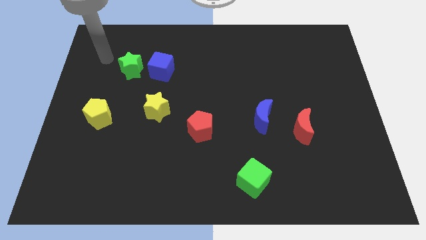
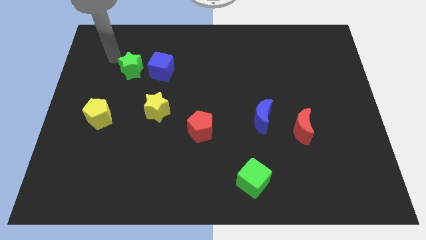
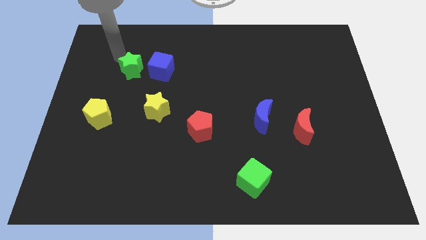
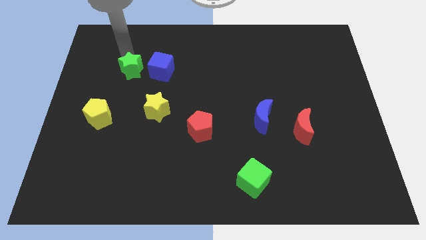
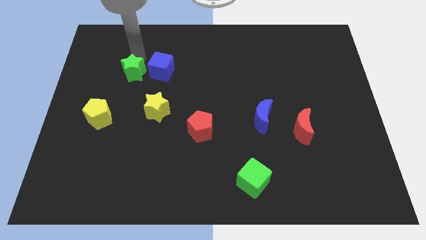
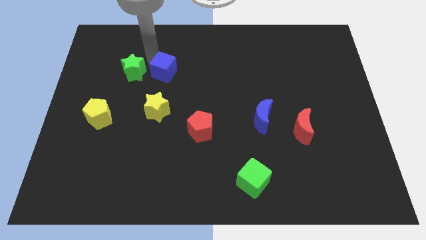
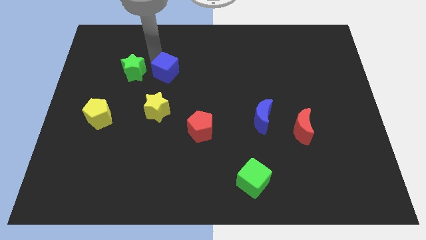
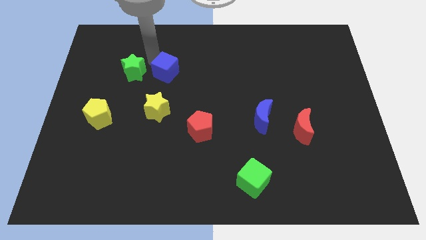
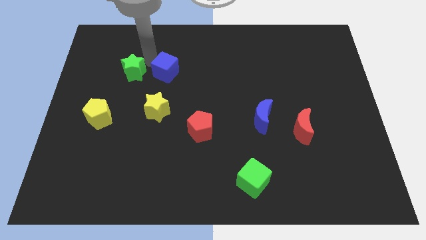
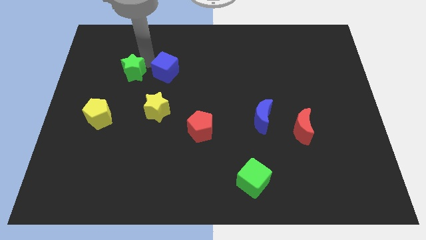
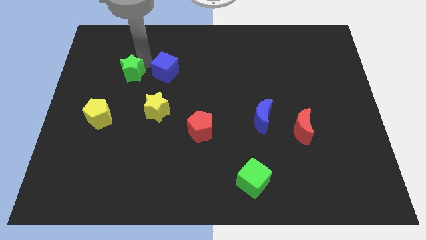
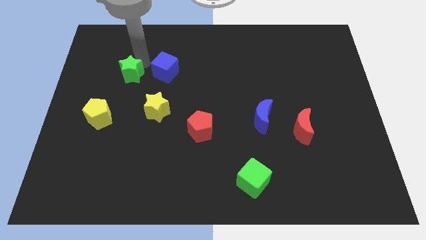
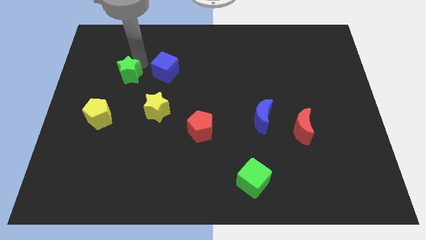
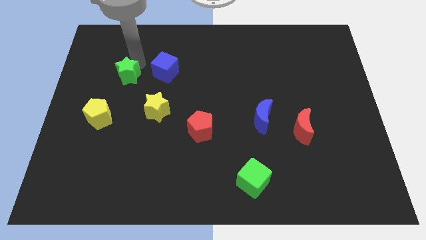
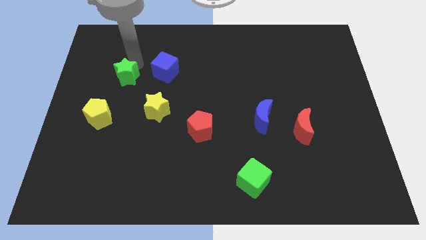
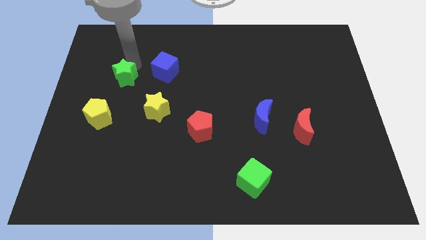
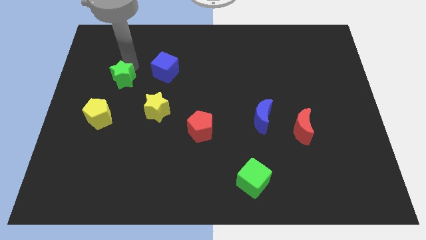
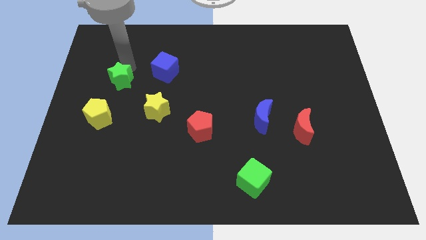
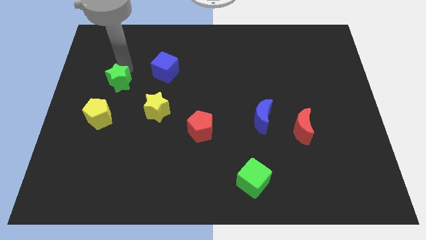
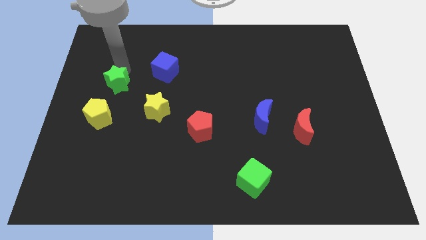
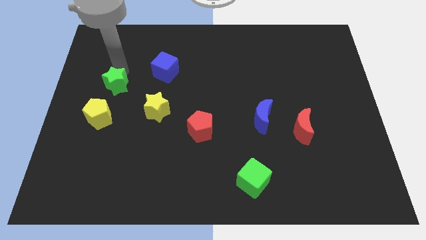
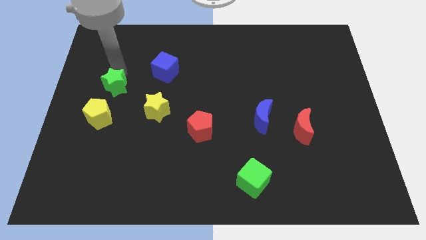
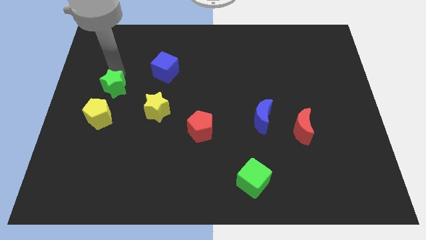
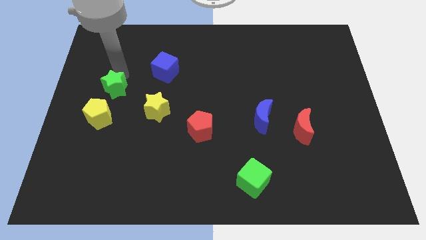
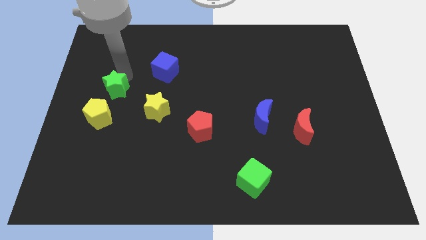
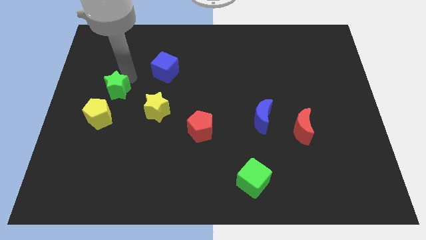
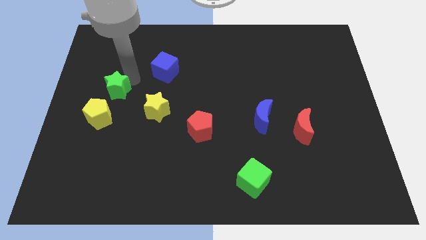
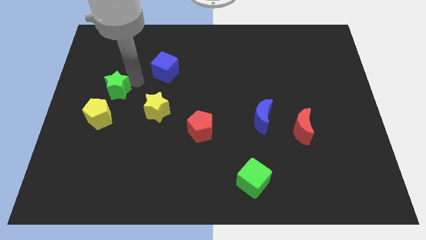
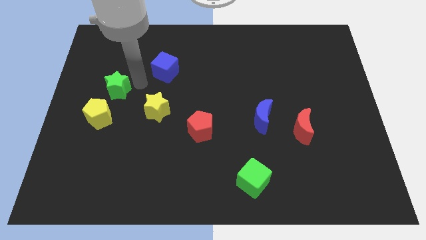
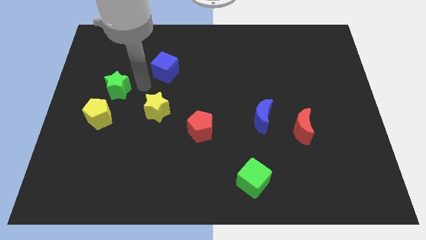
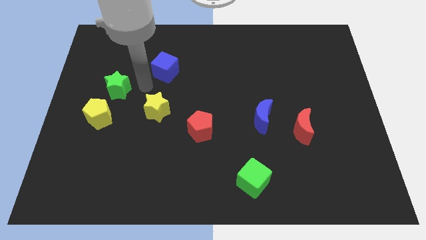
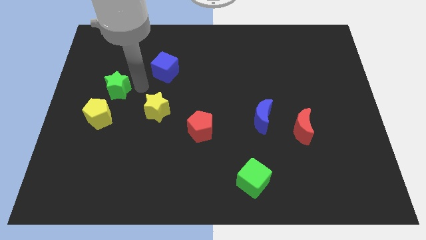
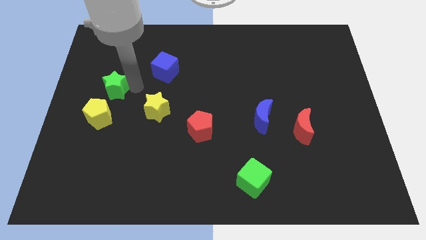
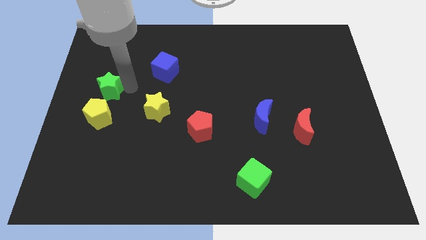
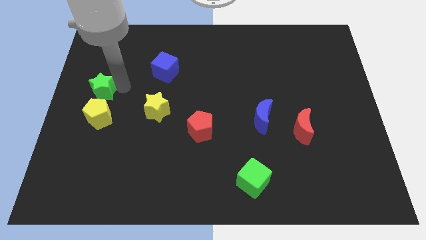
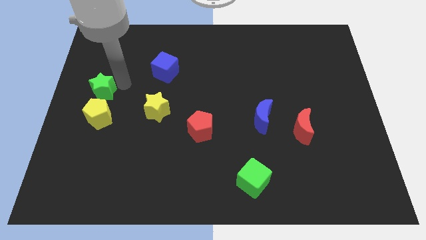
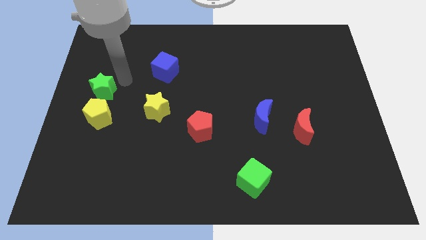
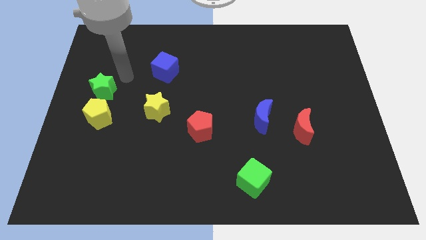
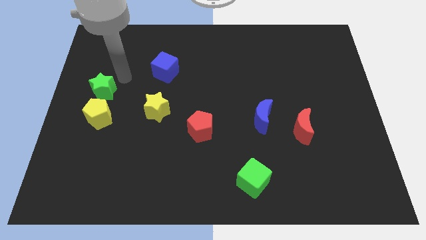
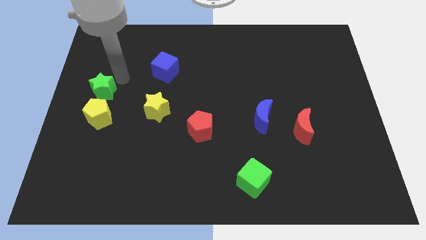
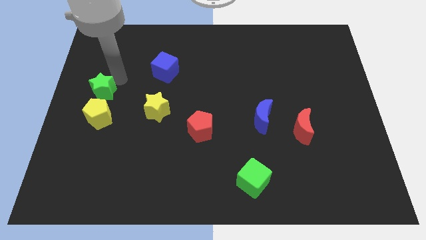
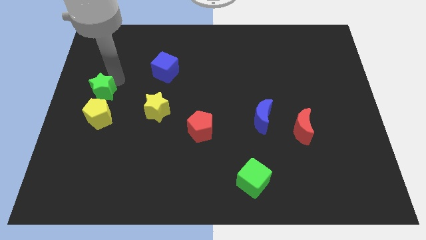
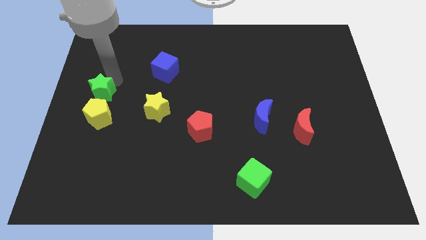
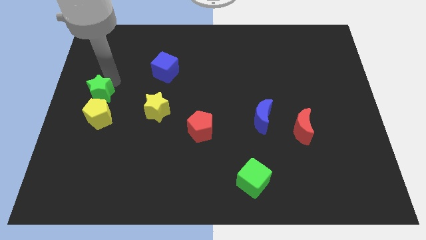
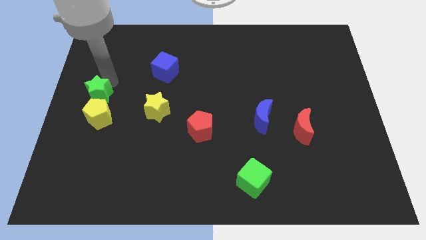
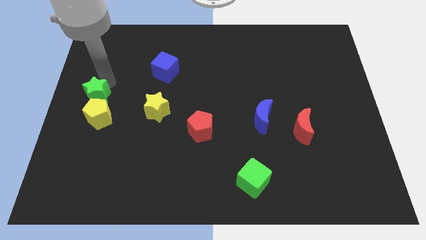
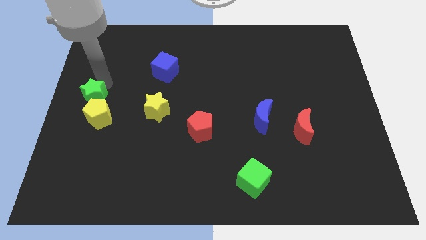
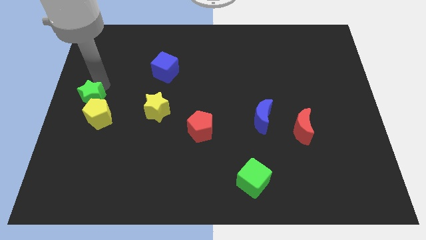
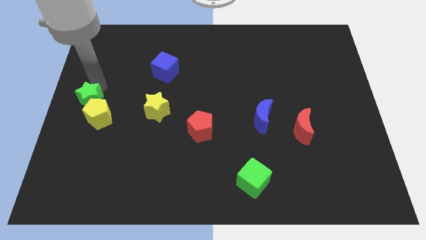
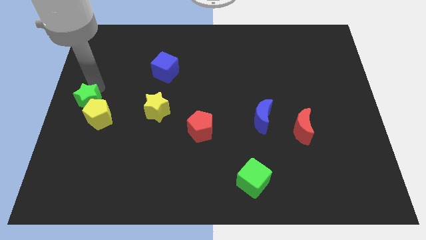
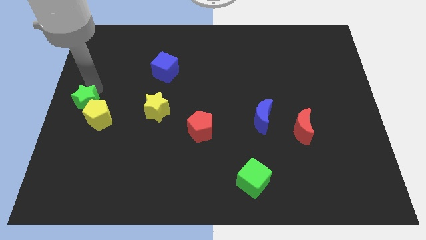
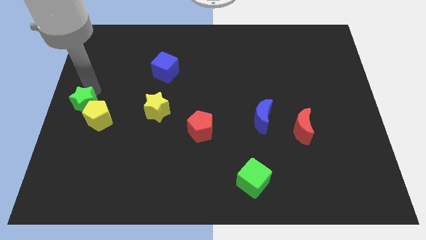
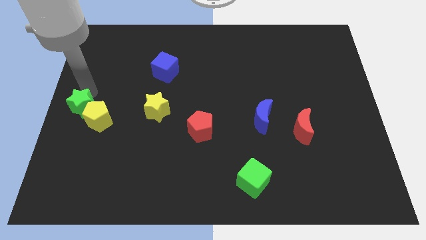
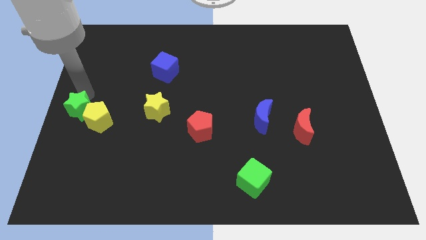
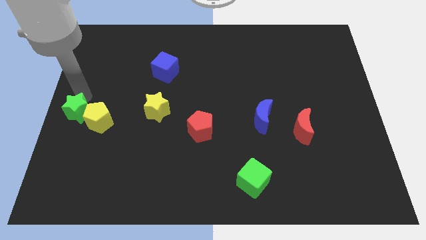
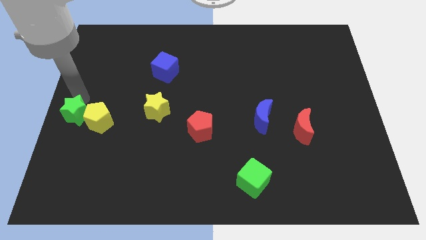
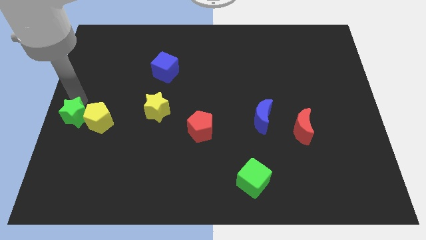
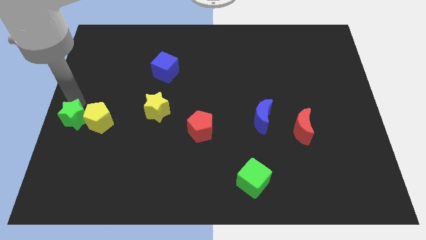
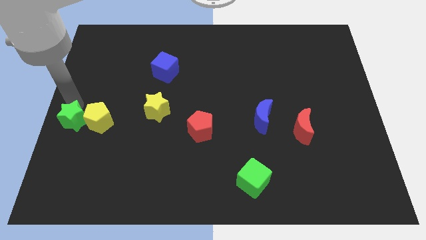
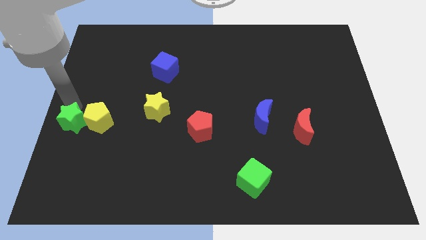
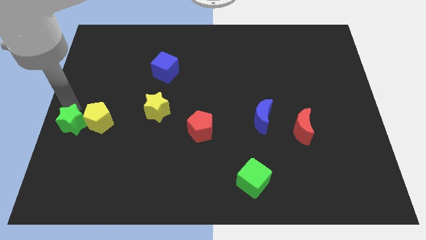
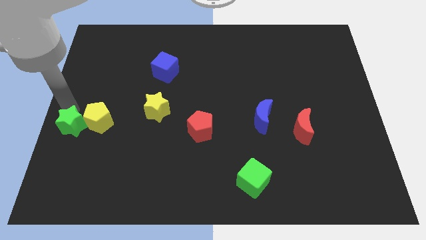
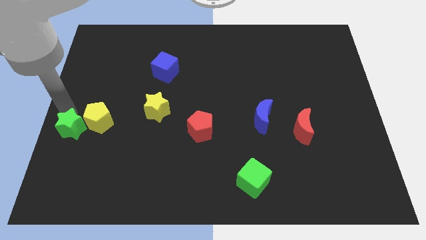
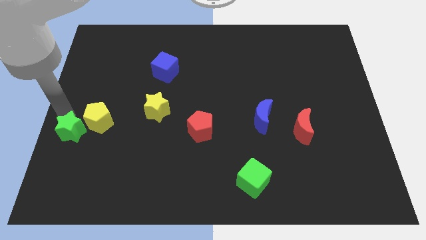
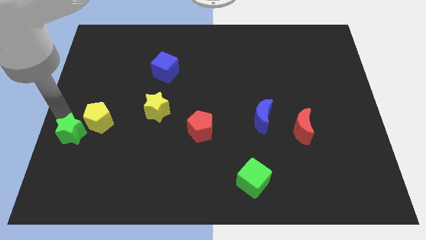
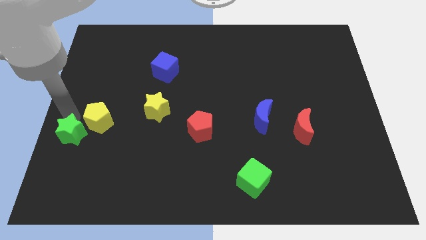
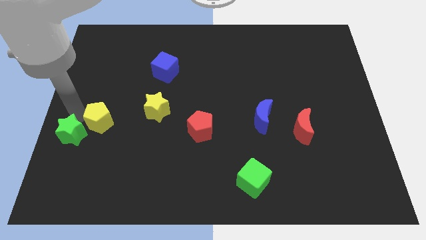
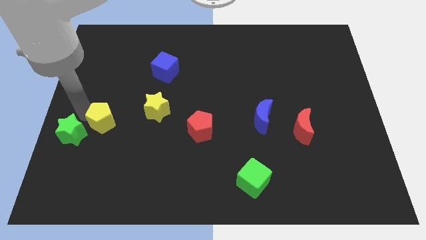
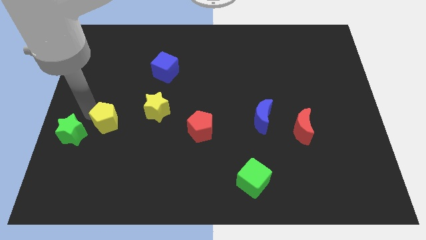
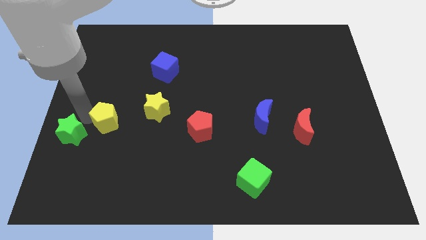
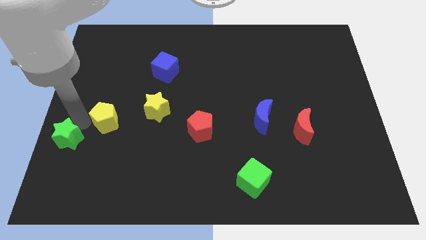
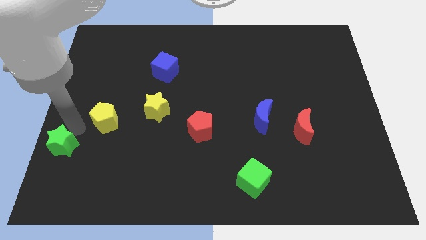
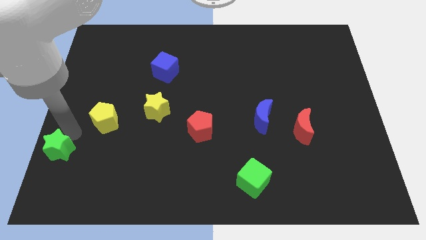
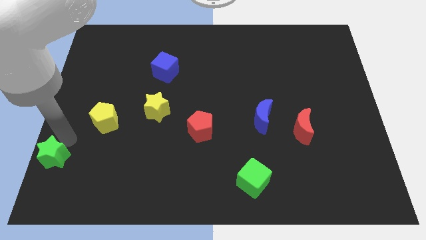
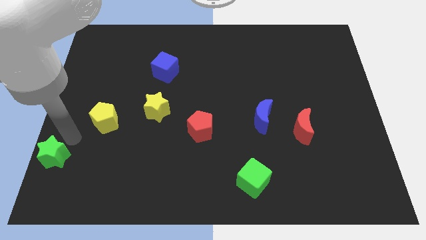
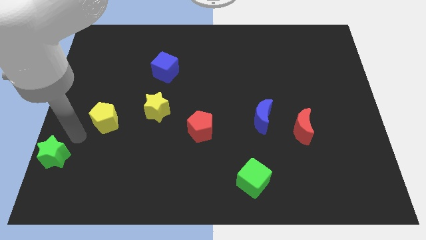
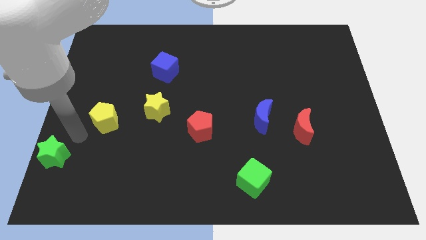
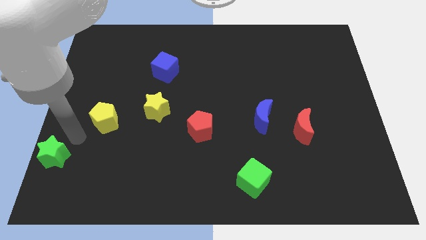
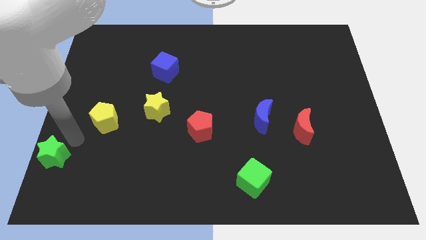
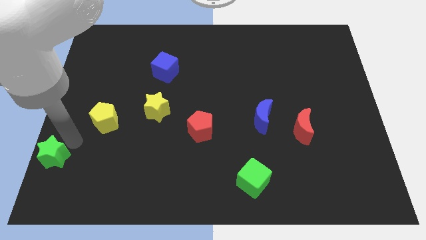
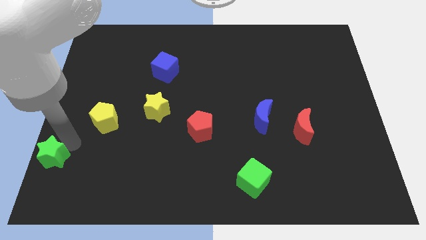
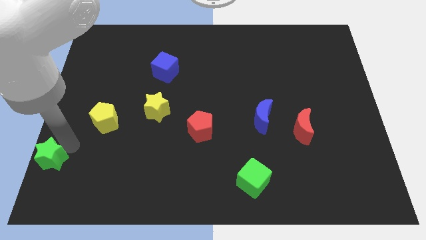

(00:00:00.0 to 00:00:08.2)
slide the green star to the lower left corner
